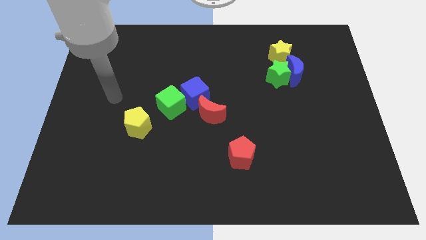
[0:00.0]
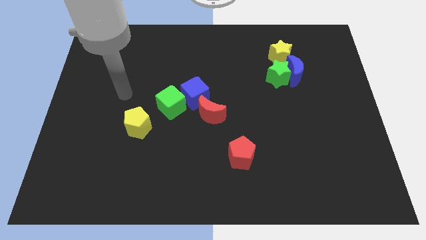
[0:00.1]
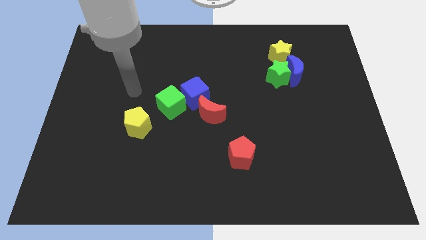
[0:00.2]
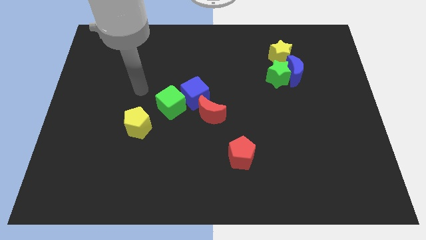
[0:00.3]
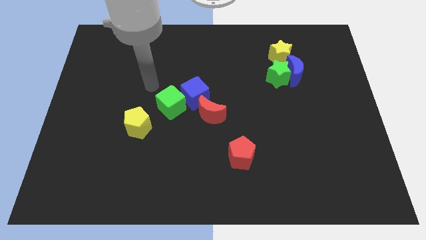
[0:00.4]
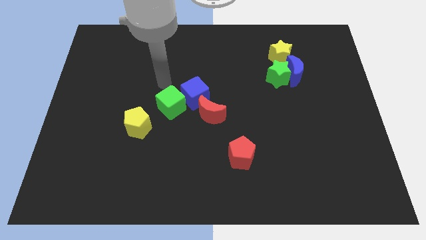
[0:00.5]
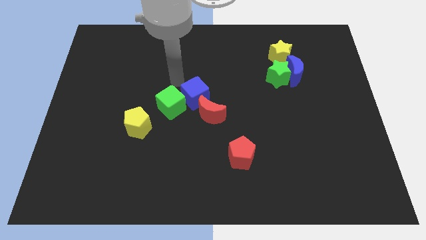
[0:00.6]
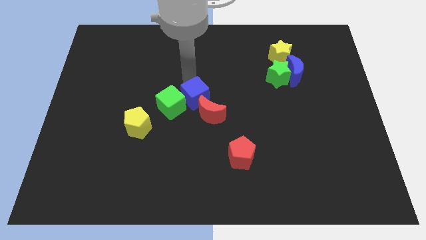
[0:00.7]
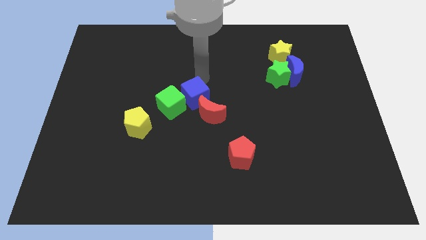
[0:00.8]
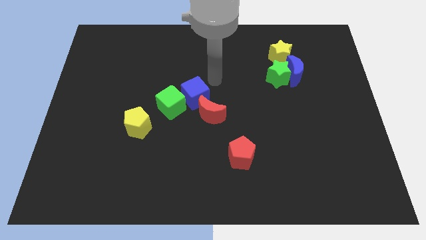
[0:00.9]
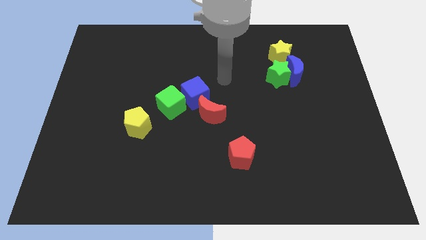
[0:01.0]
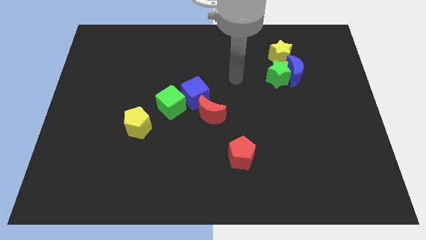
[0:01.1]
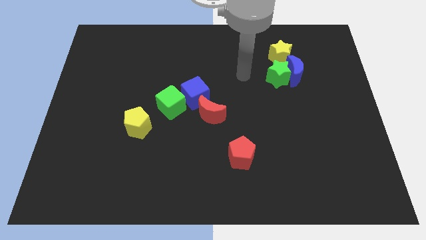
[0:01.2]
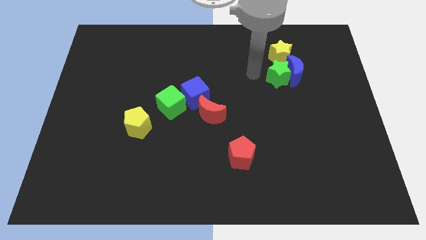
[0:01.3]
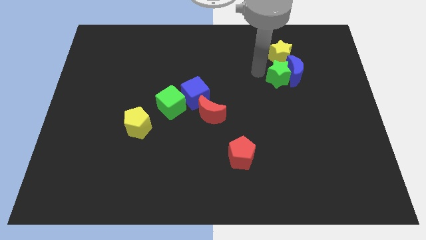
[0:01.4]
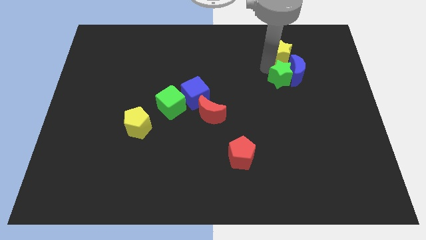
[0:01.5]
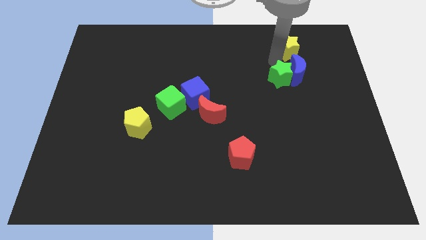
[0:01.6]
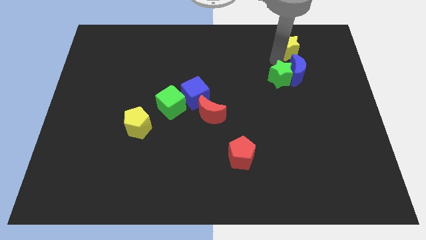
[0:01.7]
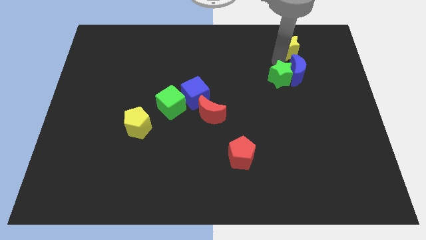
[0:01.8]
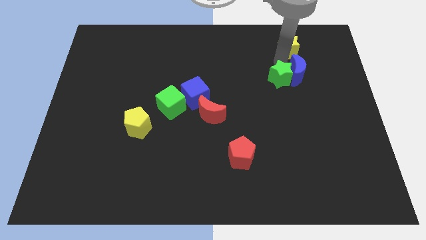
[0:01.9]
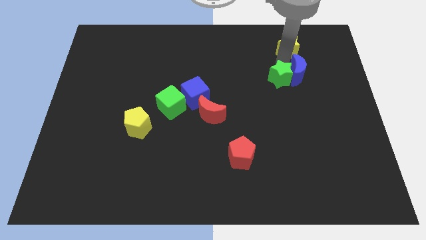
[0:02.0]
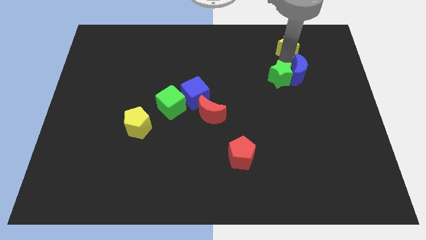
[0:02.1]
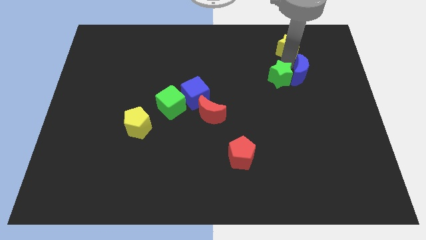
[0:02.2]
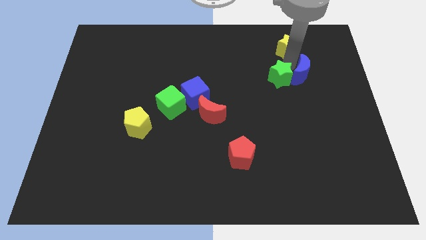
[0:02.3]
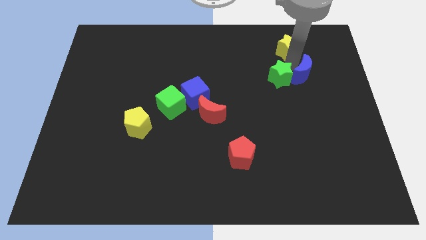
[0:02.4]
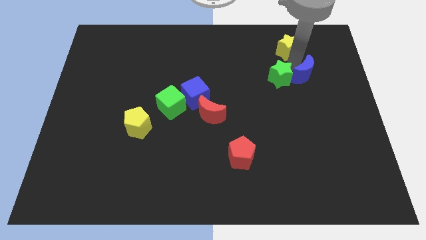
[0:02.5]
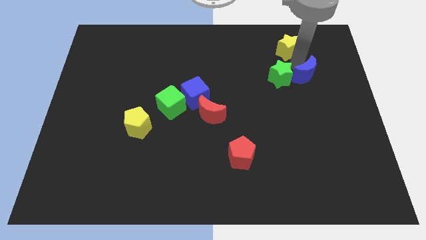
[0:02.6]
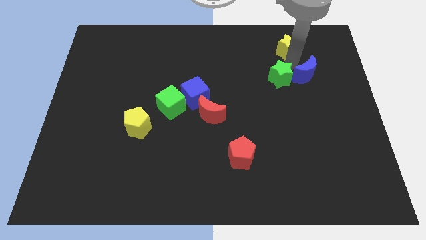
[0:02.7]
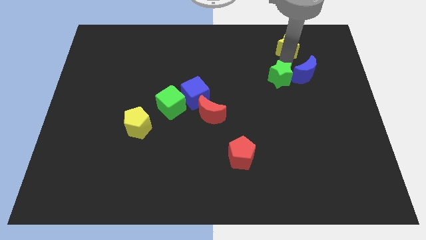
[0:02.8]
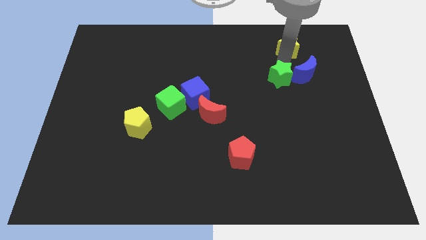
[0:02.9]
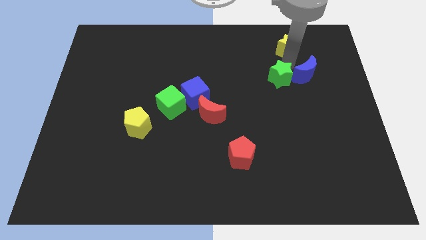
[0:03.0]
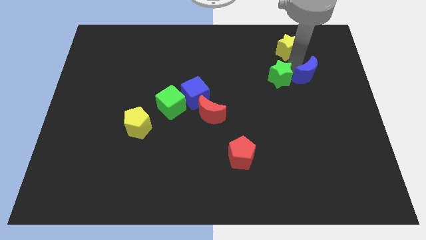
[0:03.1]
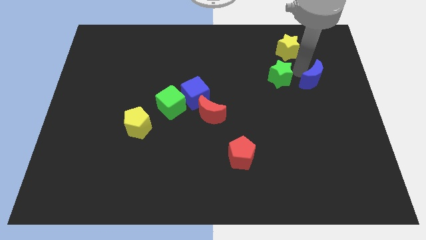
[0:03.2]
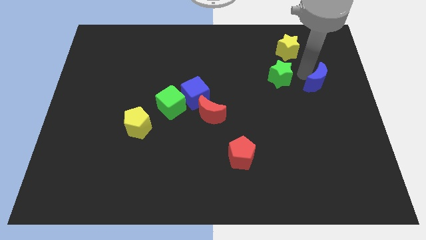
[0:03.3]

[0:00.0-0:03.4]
separate the blue moon from the green star and yellow star

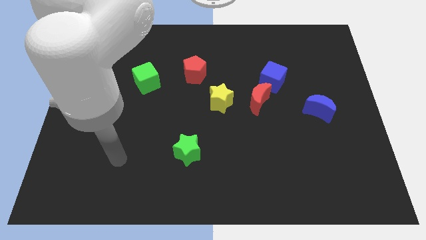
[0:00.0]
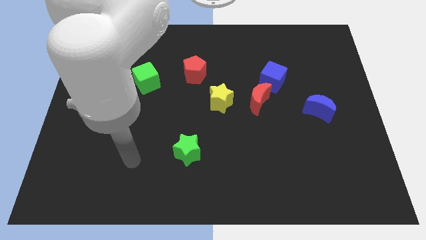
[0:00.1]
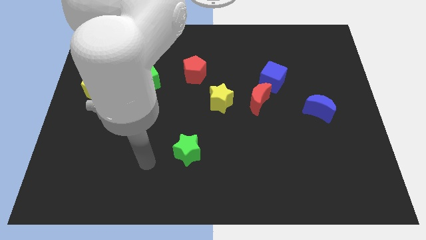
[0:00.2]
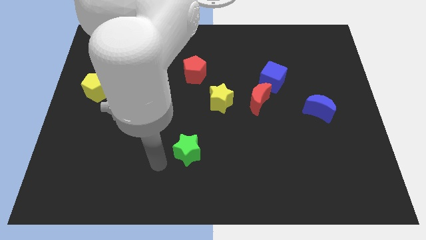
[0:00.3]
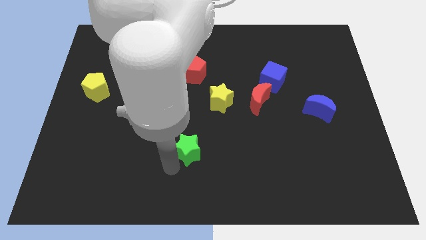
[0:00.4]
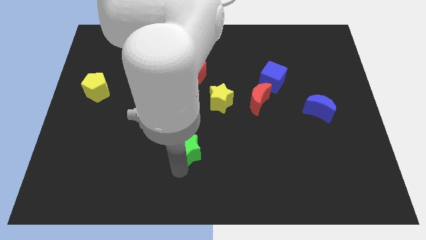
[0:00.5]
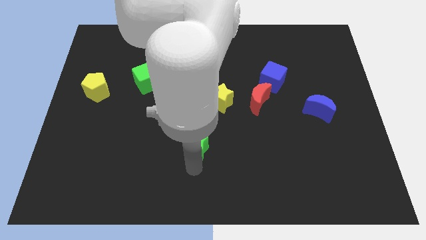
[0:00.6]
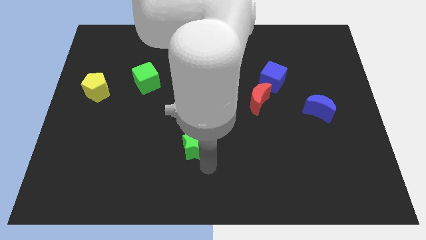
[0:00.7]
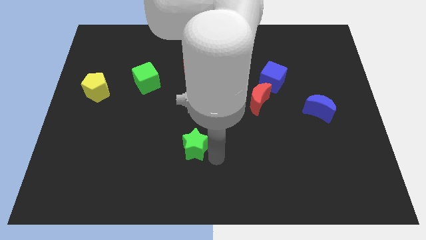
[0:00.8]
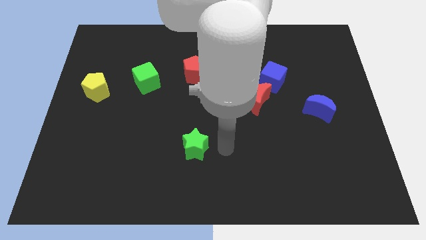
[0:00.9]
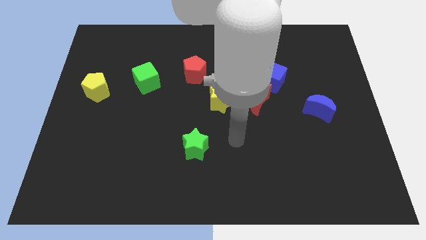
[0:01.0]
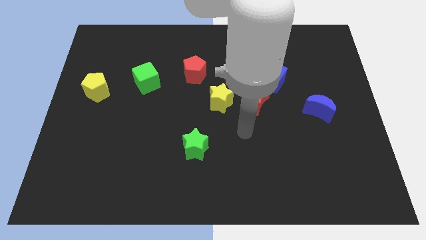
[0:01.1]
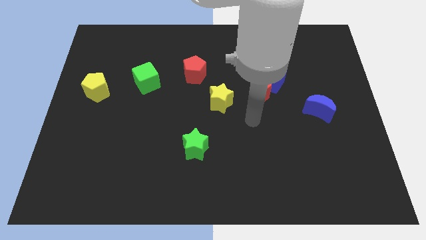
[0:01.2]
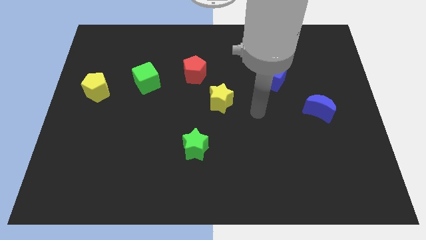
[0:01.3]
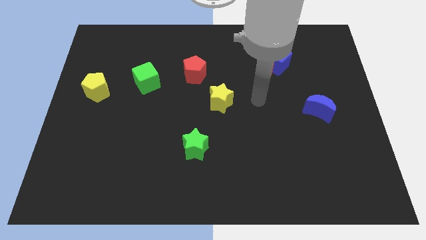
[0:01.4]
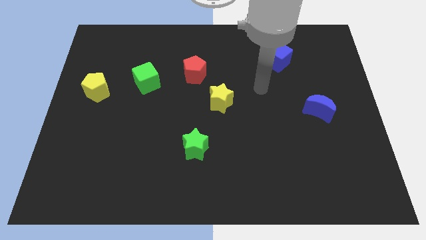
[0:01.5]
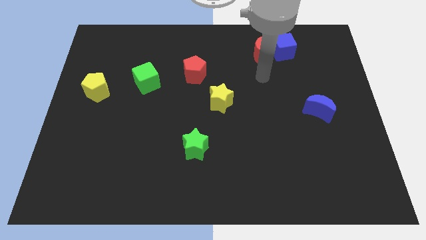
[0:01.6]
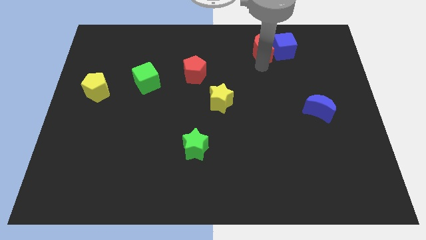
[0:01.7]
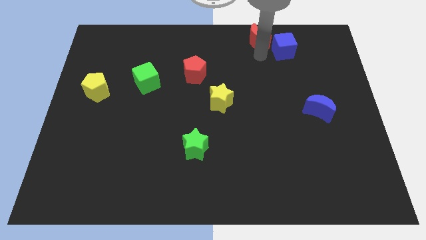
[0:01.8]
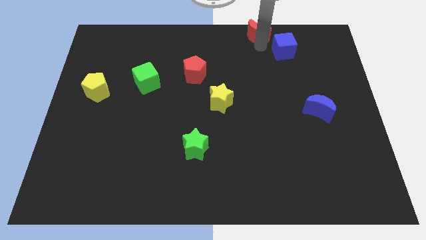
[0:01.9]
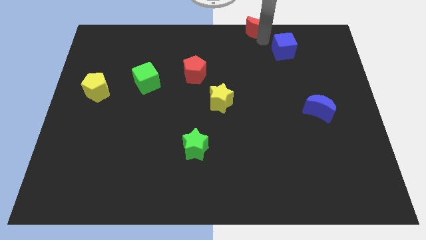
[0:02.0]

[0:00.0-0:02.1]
move the blue cube away from the red moon

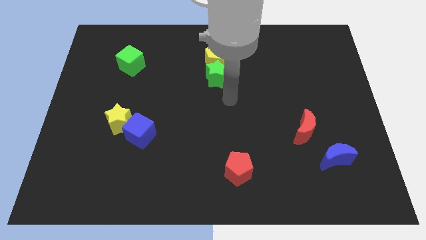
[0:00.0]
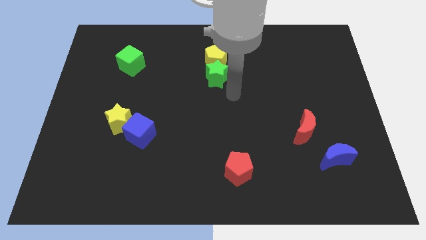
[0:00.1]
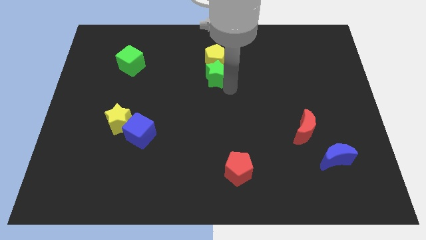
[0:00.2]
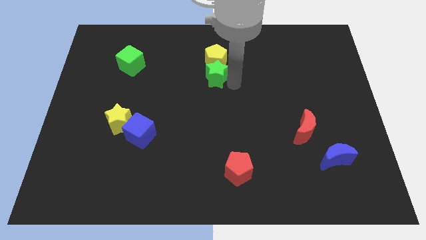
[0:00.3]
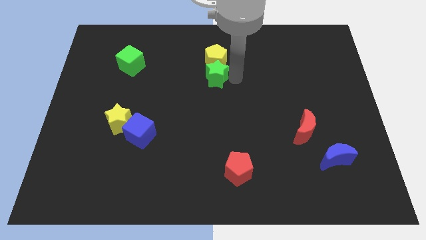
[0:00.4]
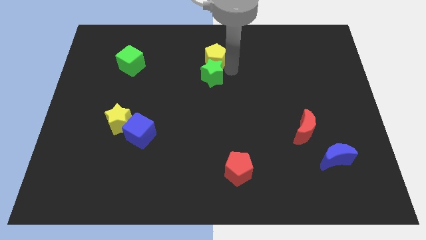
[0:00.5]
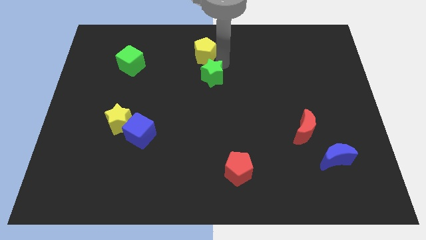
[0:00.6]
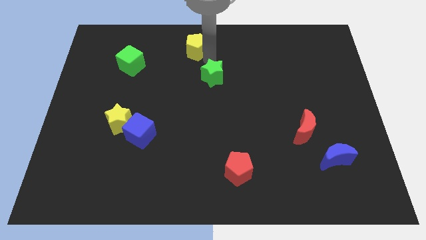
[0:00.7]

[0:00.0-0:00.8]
pull the green star apart from the yellow pentagon

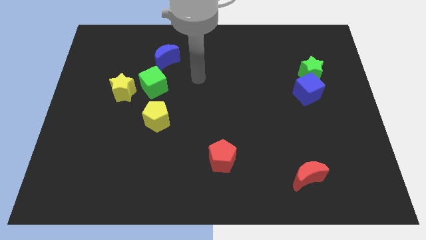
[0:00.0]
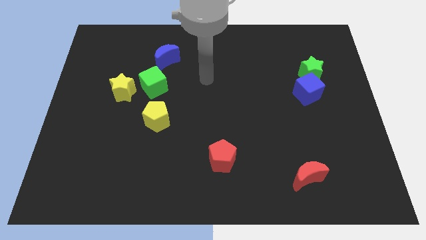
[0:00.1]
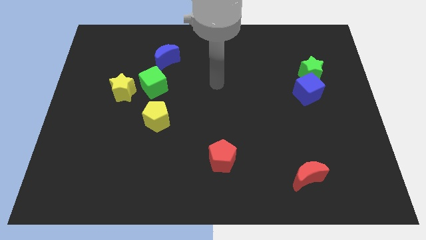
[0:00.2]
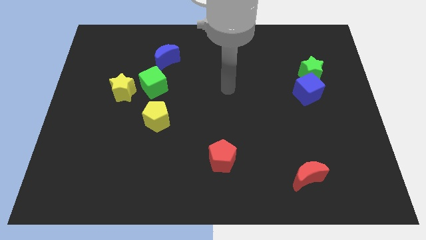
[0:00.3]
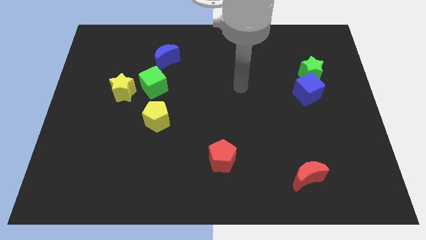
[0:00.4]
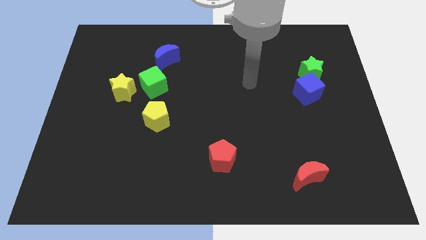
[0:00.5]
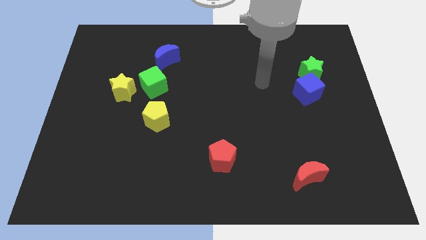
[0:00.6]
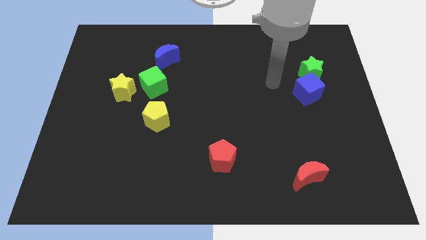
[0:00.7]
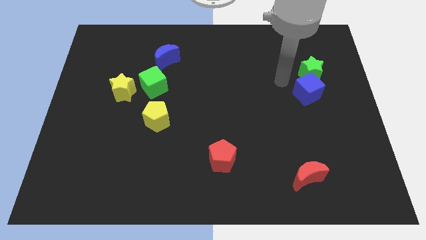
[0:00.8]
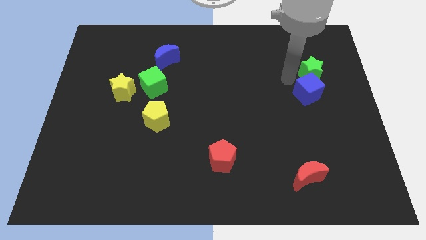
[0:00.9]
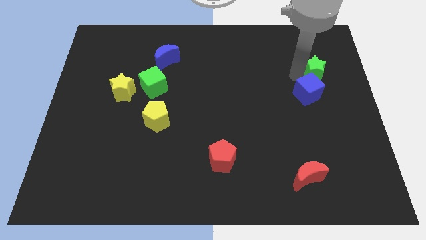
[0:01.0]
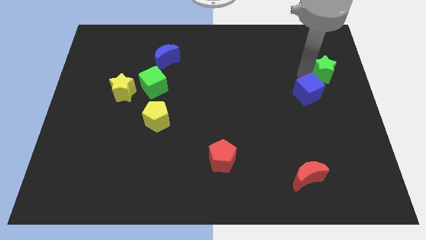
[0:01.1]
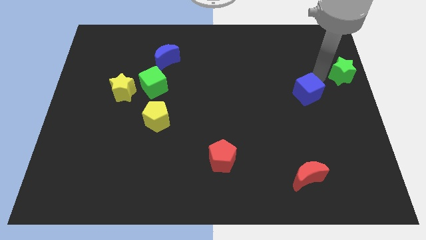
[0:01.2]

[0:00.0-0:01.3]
separate the blue cube from the green star

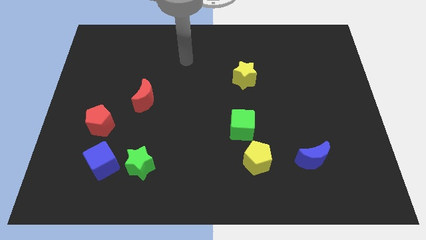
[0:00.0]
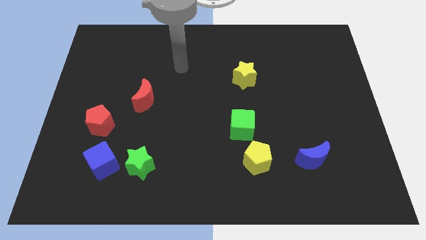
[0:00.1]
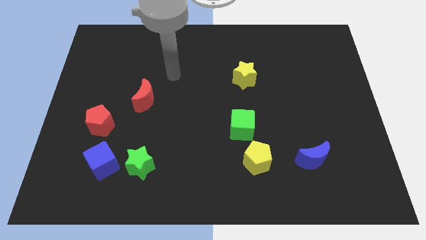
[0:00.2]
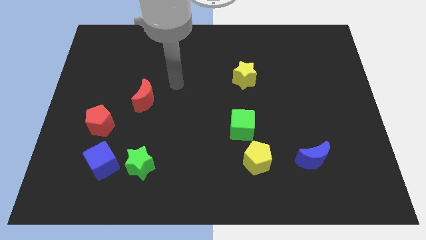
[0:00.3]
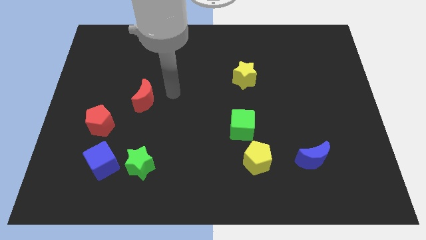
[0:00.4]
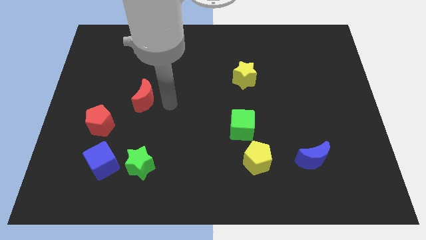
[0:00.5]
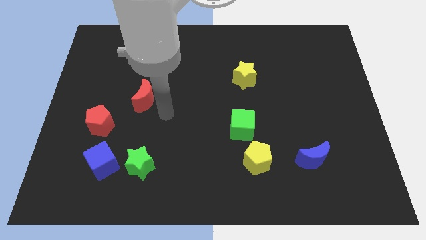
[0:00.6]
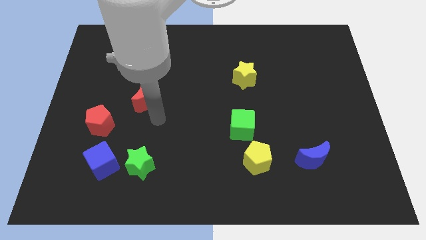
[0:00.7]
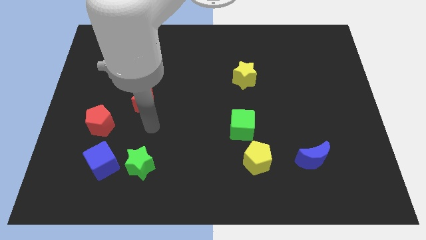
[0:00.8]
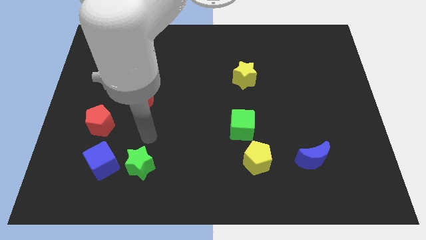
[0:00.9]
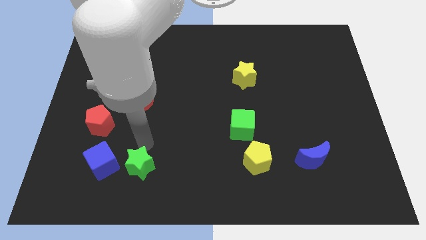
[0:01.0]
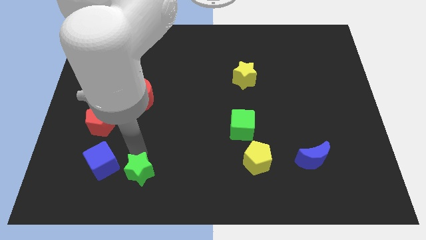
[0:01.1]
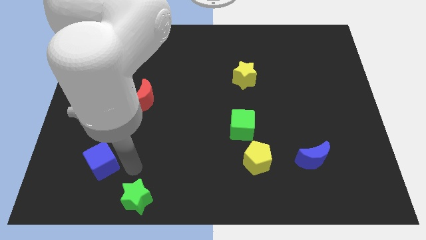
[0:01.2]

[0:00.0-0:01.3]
move the blue cube away from the green star

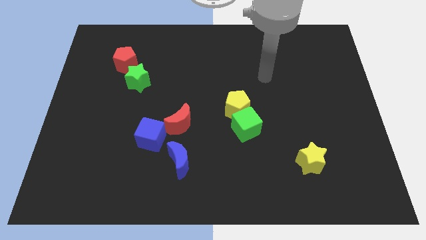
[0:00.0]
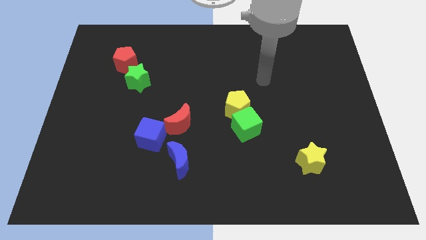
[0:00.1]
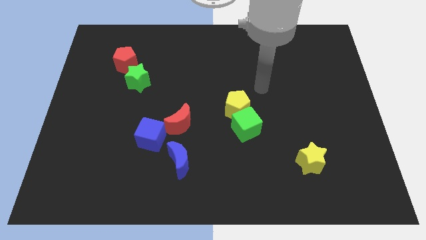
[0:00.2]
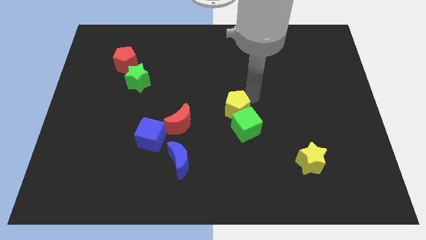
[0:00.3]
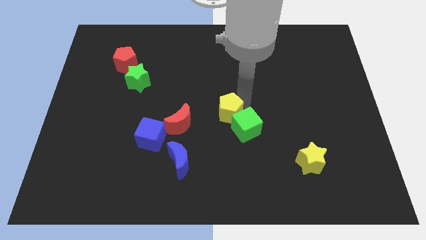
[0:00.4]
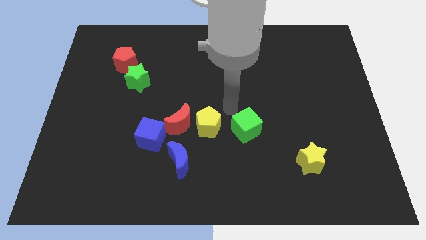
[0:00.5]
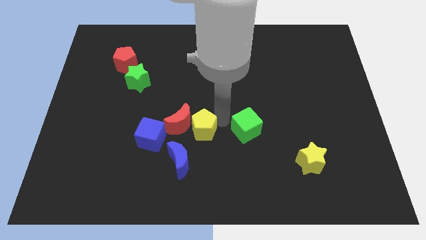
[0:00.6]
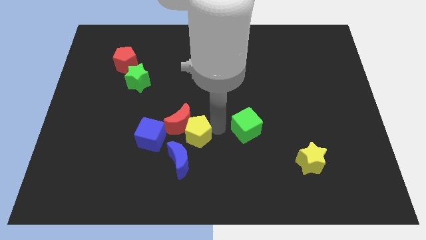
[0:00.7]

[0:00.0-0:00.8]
separate the green cube from the yellow pentagon
